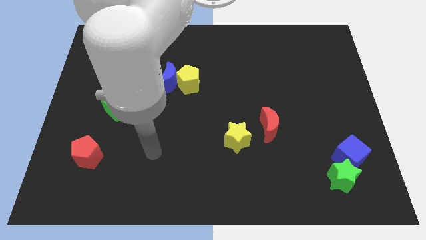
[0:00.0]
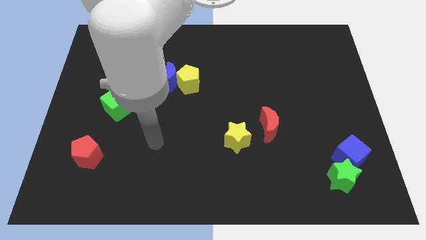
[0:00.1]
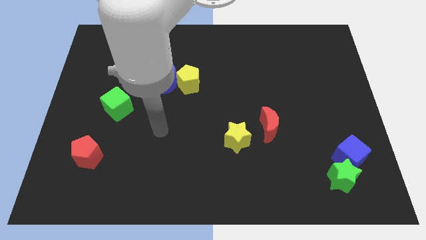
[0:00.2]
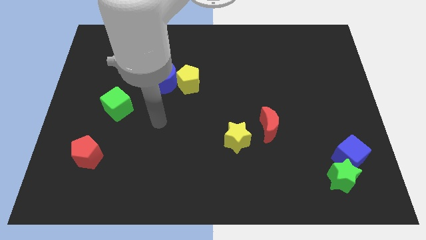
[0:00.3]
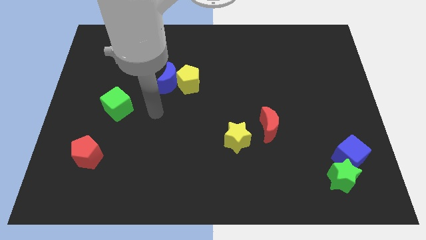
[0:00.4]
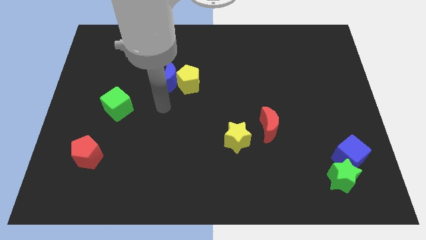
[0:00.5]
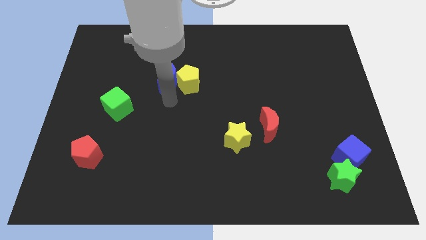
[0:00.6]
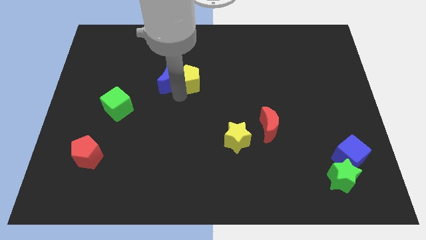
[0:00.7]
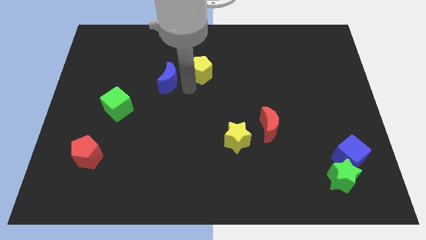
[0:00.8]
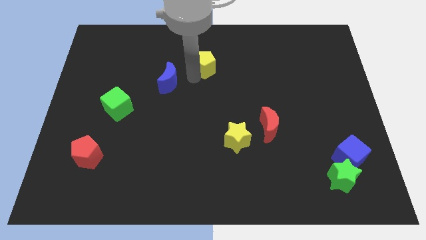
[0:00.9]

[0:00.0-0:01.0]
separate the blue moon from the yellow pentagon

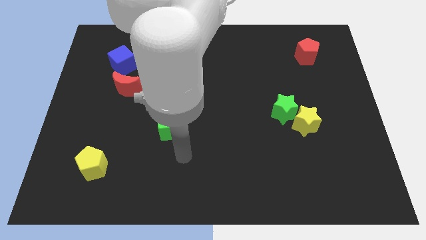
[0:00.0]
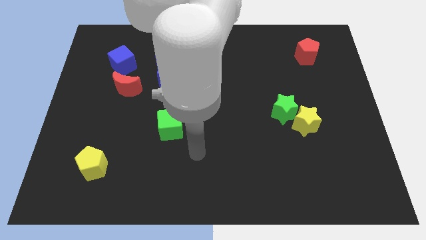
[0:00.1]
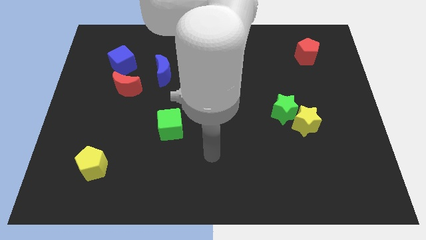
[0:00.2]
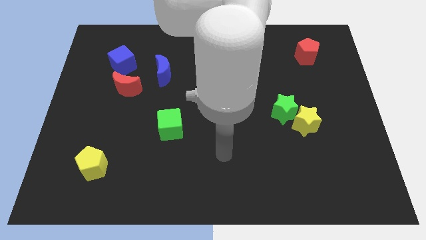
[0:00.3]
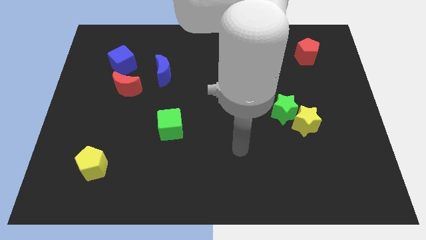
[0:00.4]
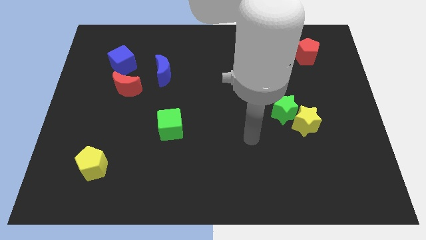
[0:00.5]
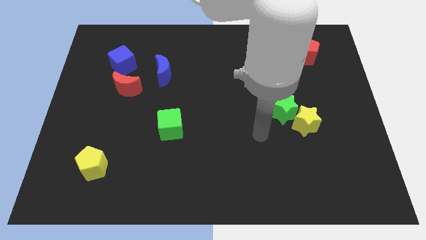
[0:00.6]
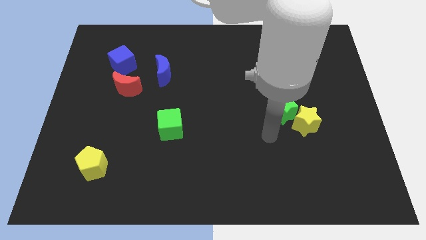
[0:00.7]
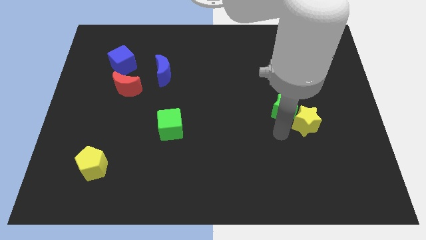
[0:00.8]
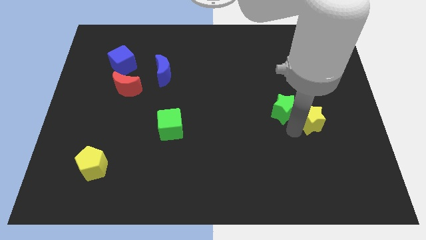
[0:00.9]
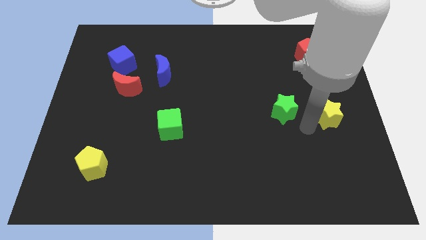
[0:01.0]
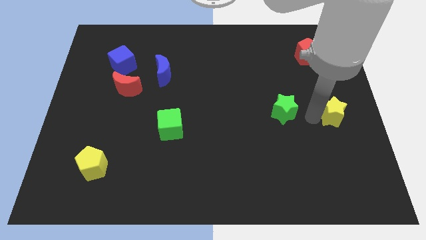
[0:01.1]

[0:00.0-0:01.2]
pull the green star apart from the yellow star

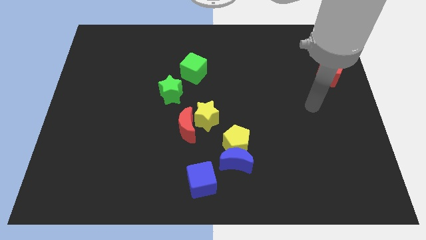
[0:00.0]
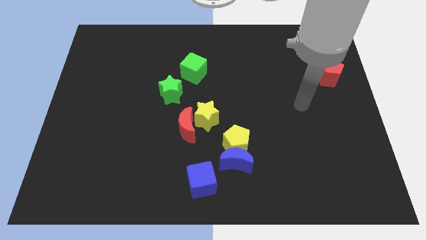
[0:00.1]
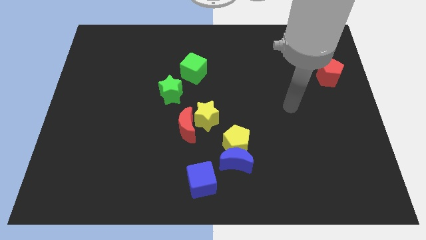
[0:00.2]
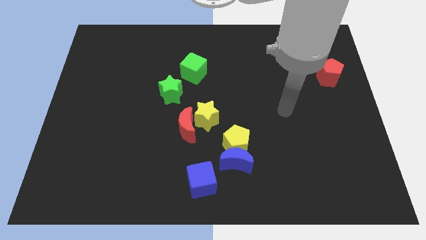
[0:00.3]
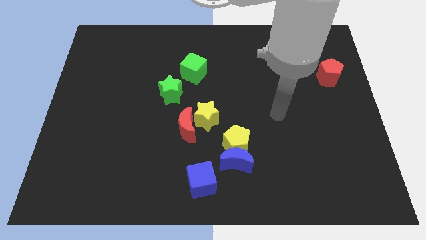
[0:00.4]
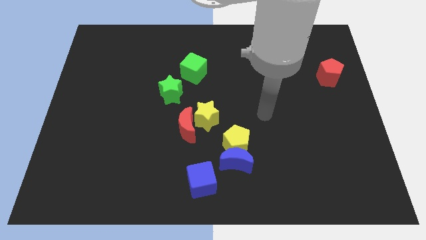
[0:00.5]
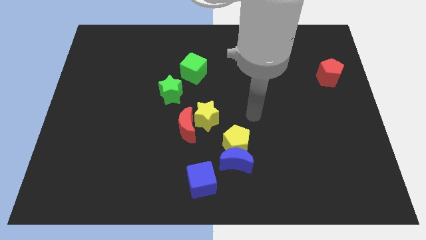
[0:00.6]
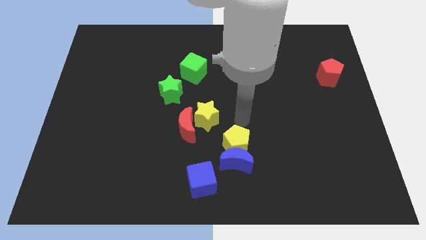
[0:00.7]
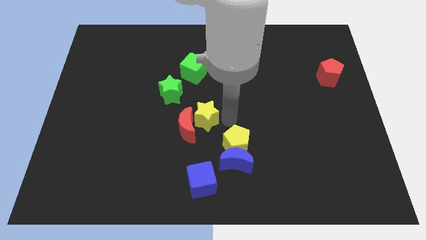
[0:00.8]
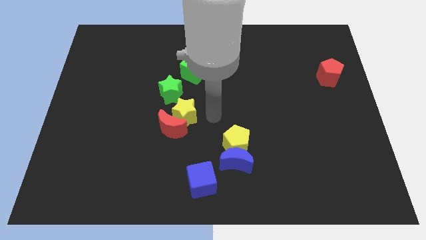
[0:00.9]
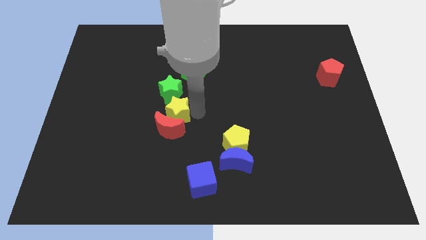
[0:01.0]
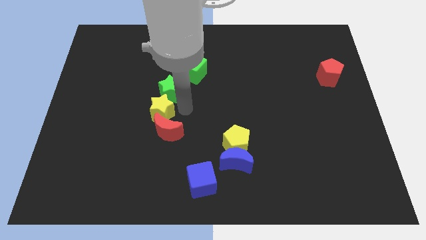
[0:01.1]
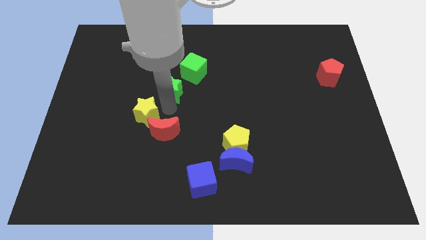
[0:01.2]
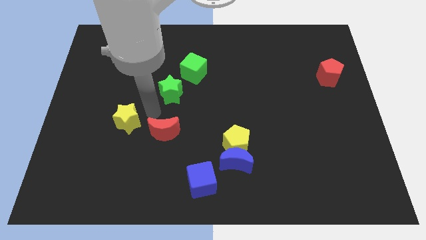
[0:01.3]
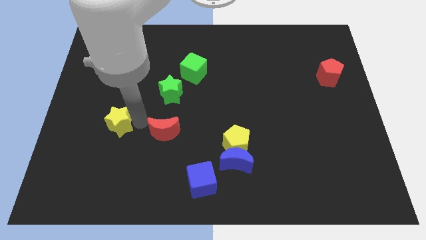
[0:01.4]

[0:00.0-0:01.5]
move the red moon away from the yellow star

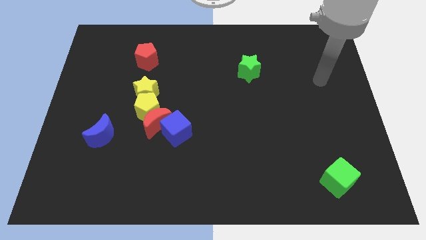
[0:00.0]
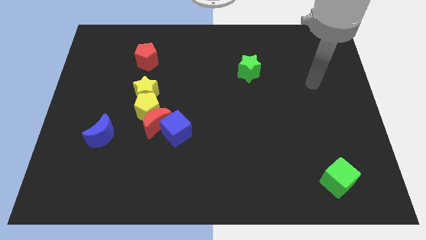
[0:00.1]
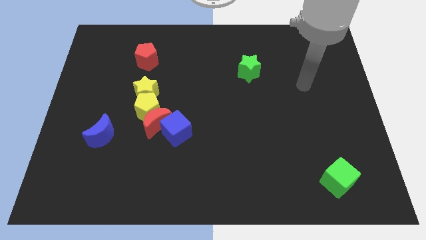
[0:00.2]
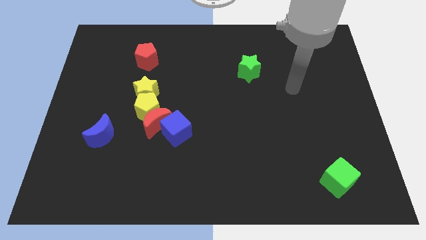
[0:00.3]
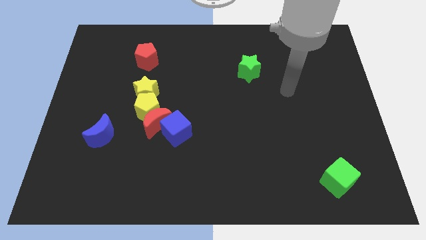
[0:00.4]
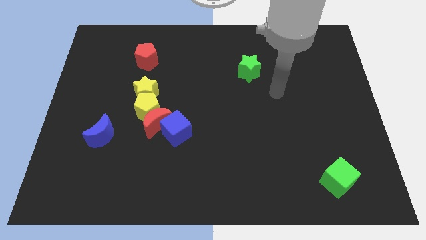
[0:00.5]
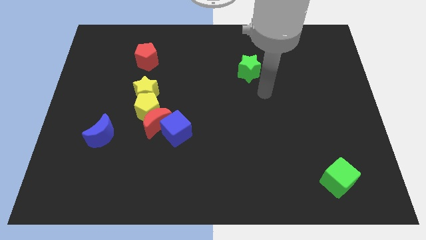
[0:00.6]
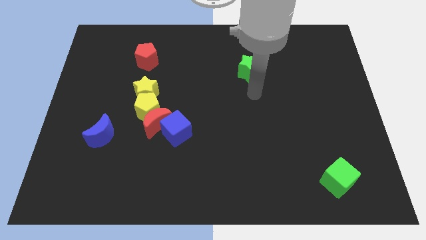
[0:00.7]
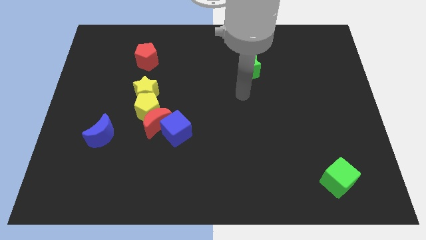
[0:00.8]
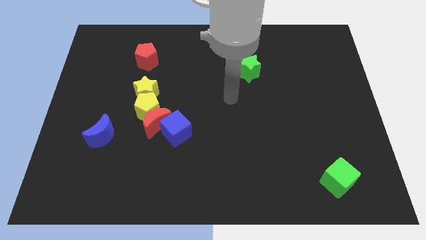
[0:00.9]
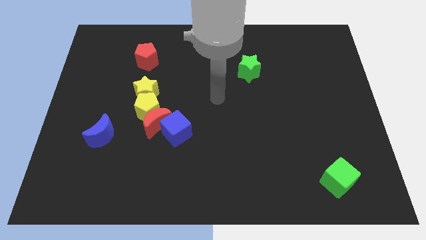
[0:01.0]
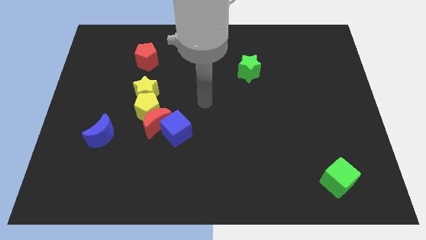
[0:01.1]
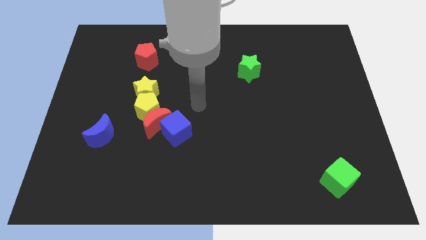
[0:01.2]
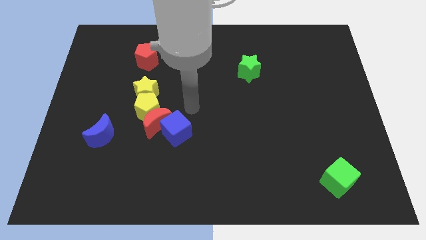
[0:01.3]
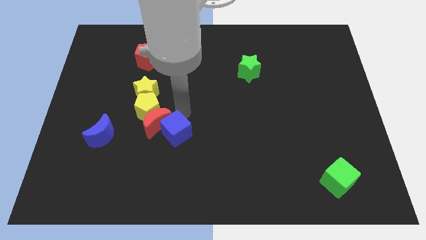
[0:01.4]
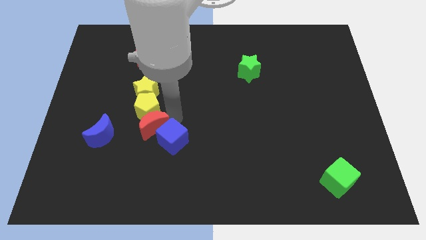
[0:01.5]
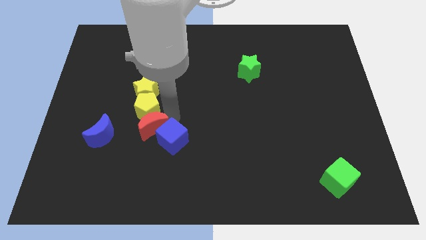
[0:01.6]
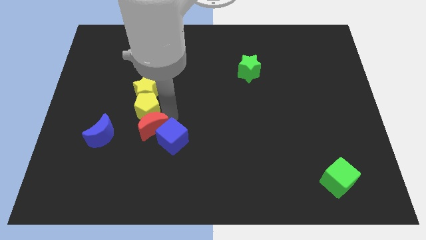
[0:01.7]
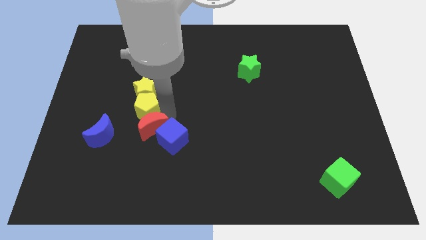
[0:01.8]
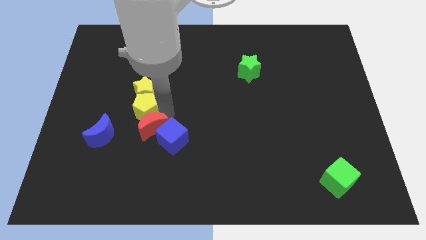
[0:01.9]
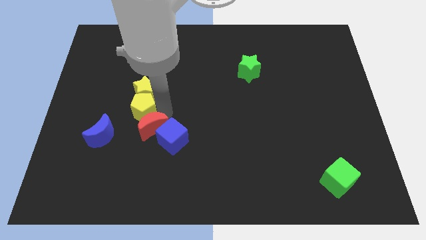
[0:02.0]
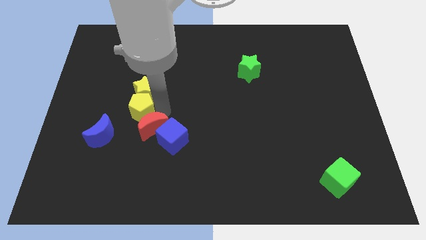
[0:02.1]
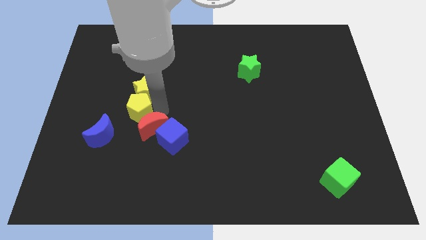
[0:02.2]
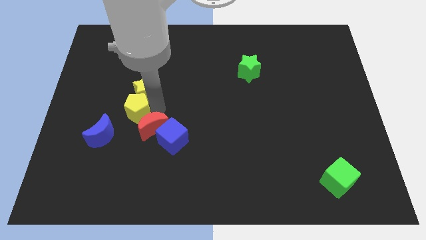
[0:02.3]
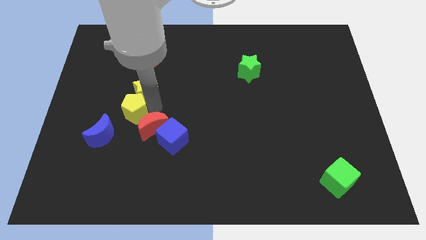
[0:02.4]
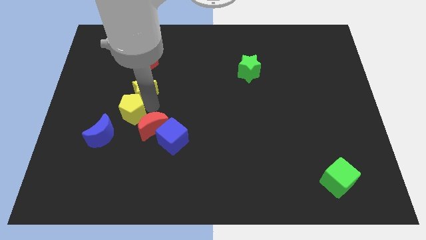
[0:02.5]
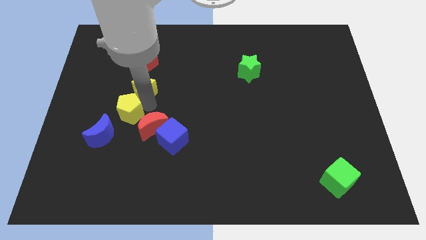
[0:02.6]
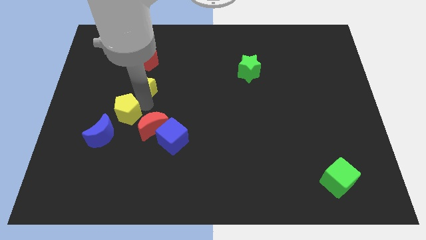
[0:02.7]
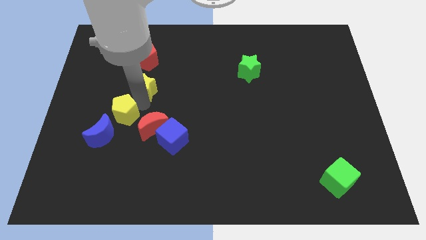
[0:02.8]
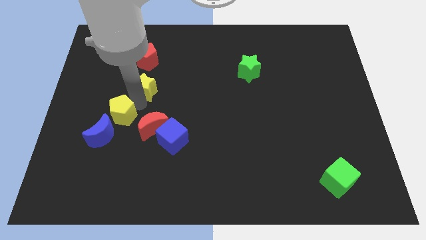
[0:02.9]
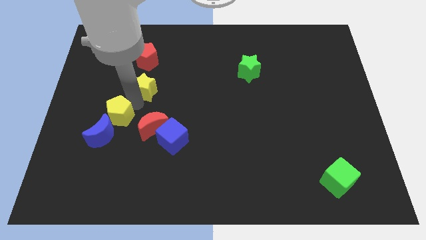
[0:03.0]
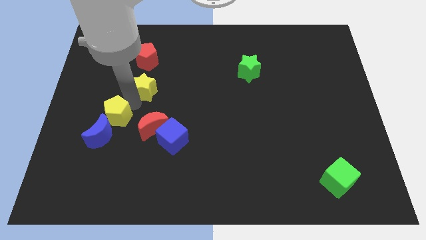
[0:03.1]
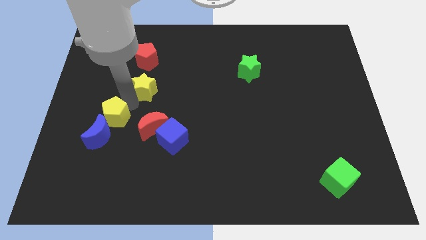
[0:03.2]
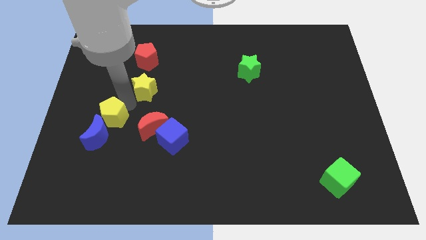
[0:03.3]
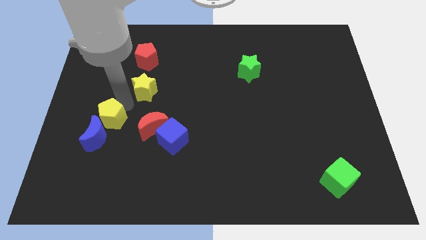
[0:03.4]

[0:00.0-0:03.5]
move the yellow pentagon away from the red moon, yellow star, and blue cube

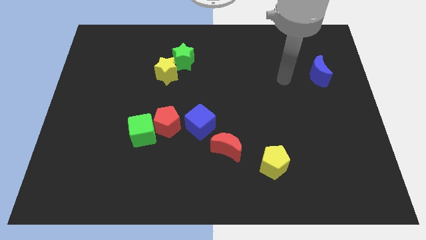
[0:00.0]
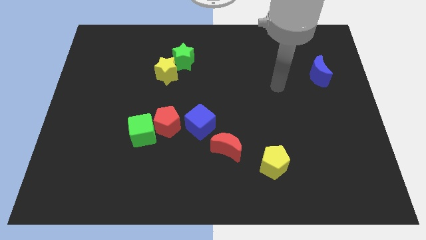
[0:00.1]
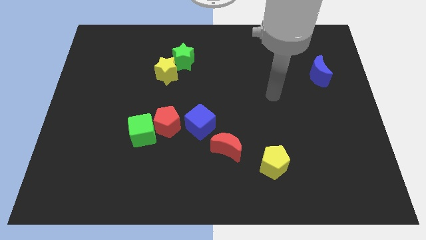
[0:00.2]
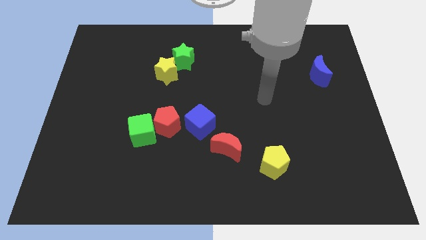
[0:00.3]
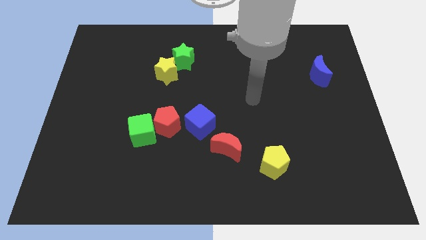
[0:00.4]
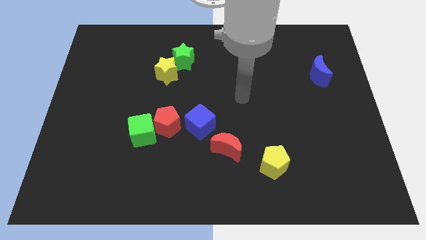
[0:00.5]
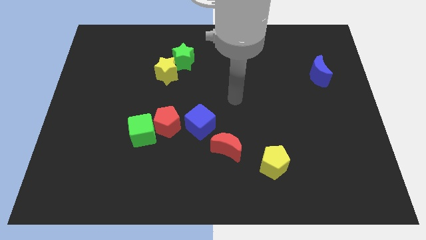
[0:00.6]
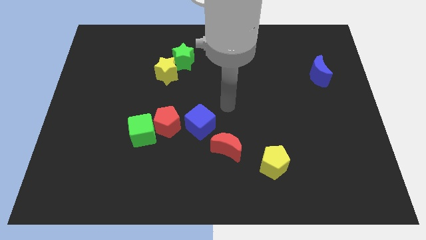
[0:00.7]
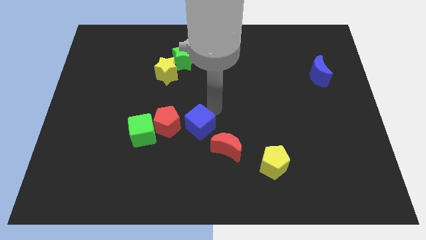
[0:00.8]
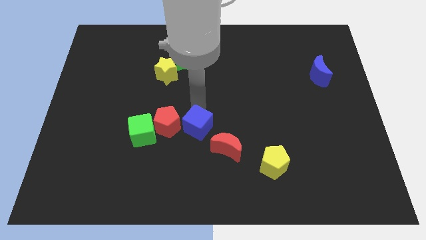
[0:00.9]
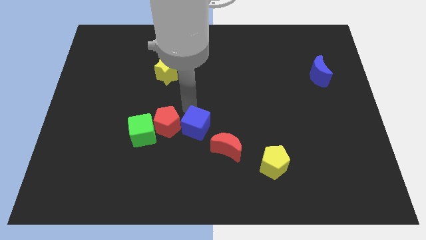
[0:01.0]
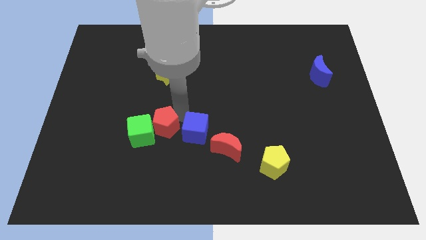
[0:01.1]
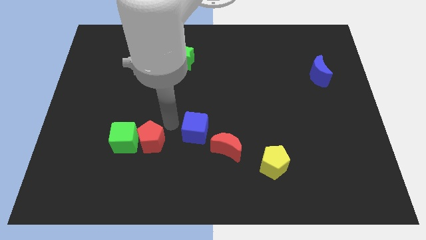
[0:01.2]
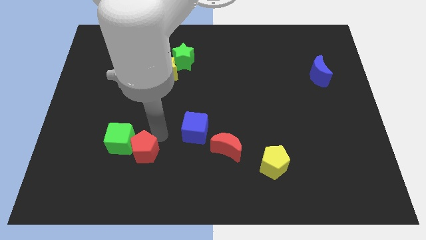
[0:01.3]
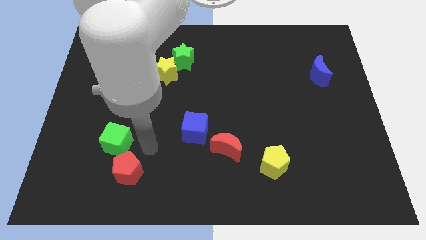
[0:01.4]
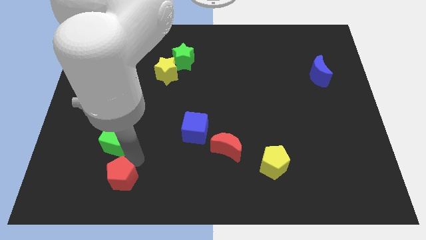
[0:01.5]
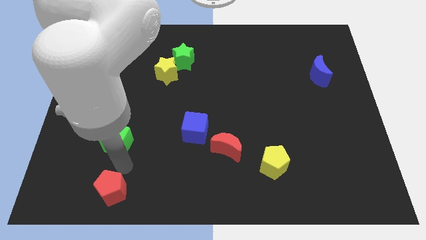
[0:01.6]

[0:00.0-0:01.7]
pull the green cube apart from the red pentagon

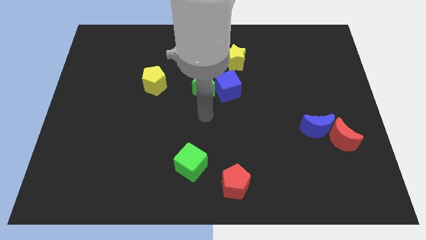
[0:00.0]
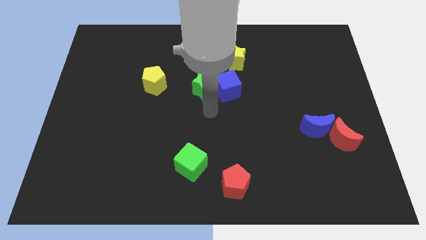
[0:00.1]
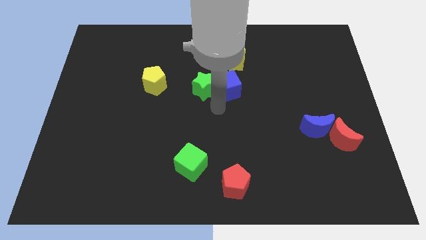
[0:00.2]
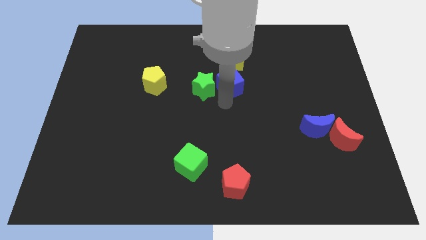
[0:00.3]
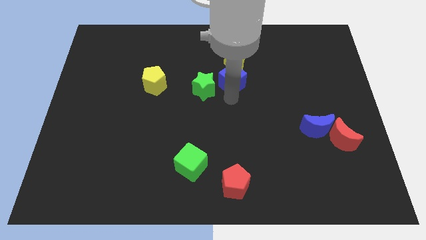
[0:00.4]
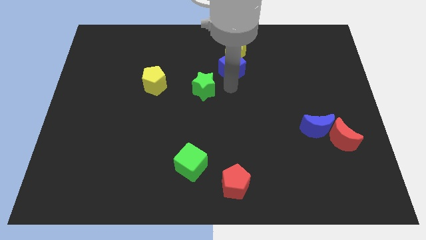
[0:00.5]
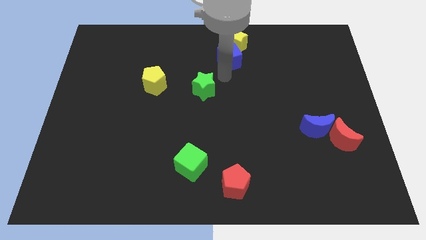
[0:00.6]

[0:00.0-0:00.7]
move the green star away from the blue cube
